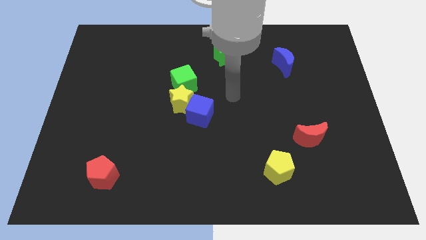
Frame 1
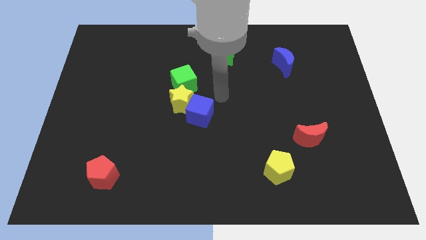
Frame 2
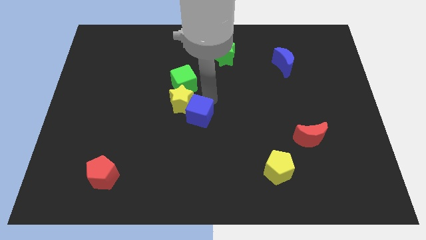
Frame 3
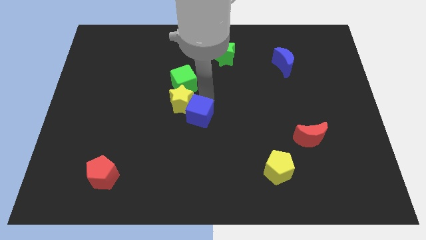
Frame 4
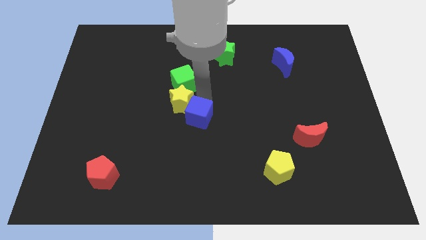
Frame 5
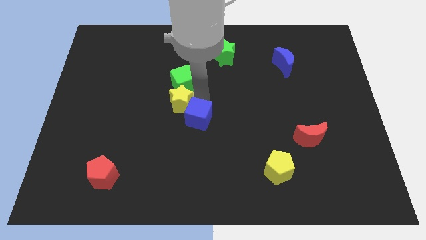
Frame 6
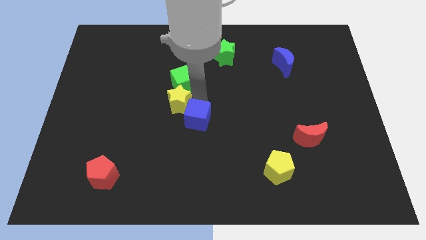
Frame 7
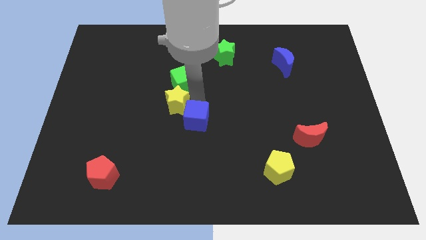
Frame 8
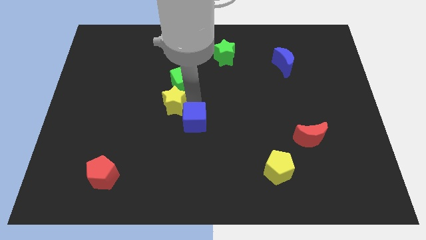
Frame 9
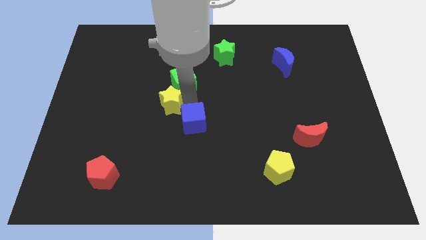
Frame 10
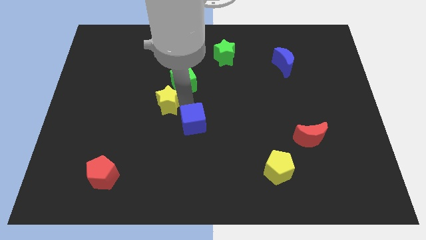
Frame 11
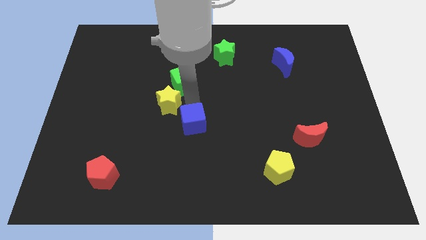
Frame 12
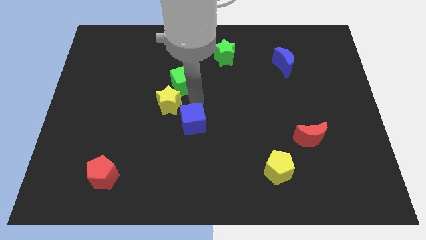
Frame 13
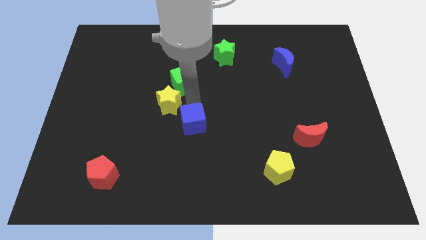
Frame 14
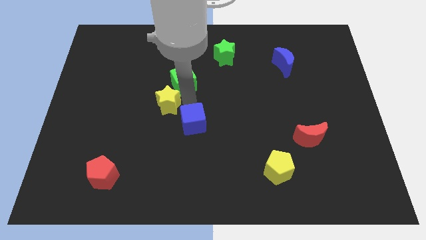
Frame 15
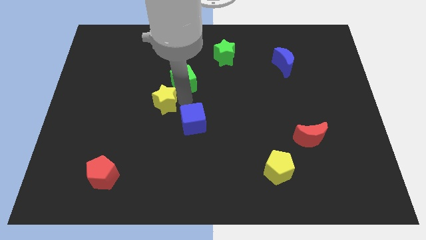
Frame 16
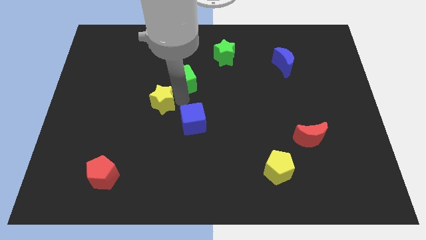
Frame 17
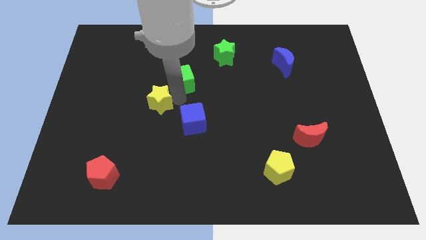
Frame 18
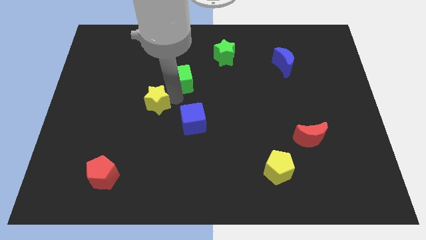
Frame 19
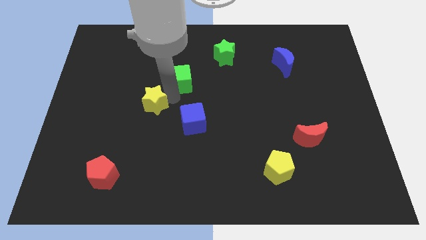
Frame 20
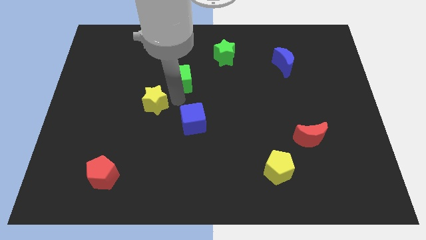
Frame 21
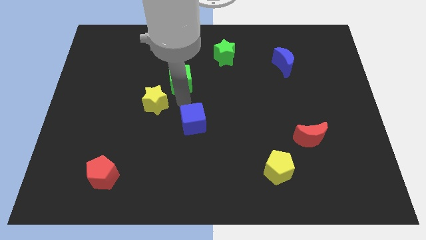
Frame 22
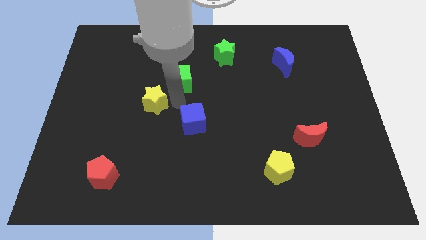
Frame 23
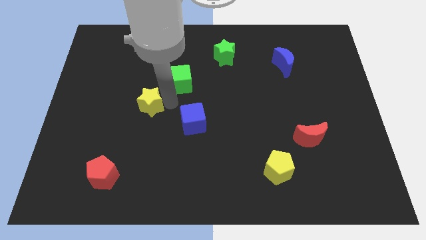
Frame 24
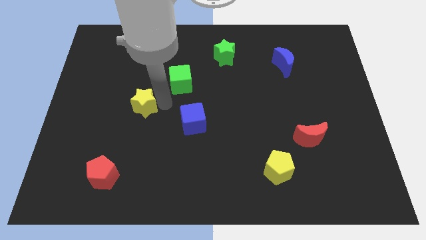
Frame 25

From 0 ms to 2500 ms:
separate the yellow star from the blue cube and green cube

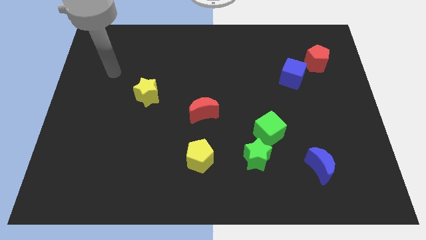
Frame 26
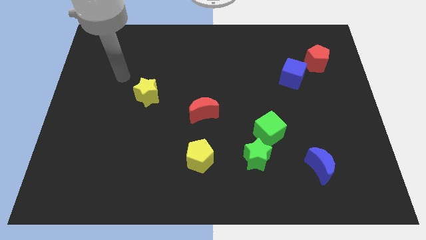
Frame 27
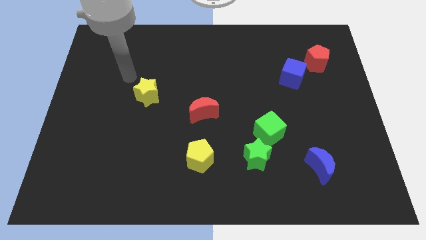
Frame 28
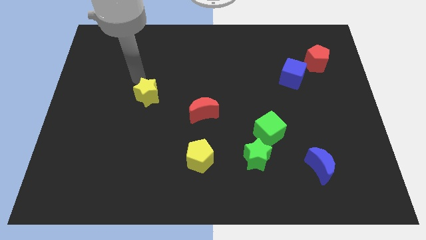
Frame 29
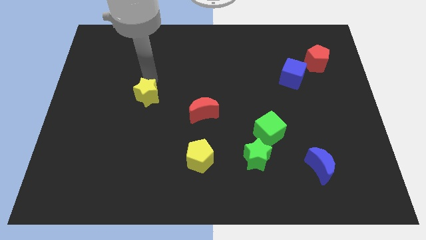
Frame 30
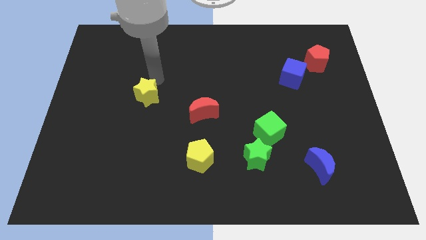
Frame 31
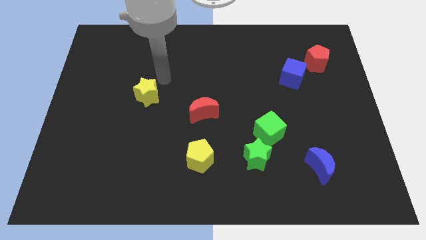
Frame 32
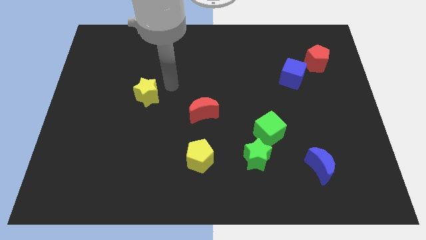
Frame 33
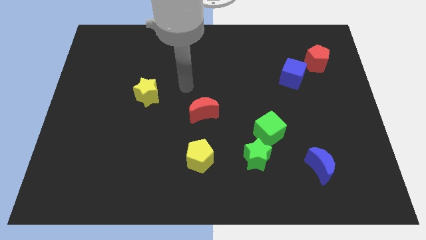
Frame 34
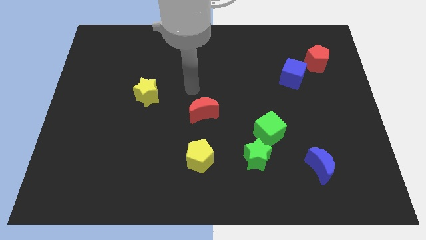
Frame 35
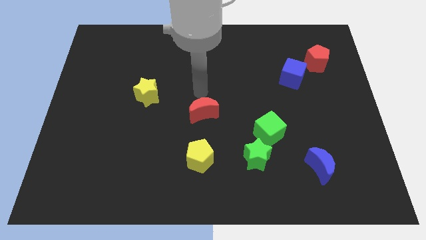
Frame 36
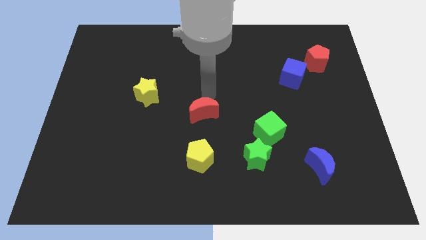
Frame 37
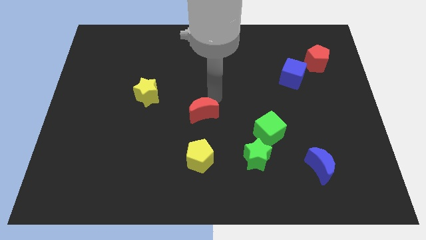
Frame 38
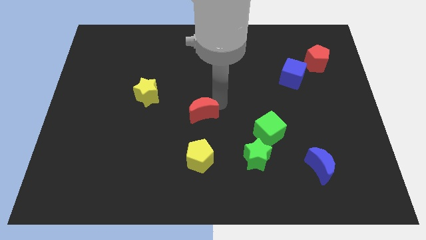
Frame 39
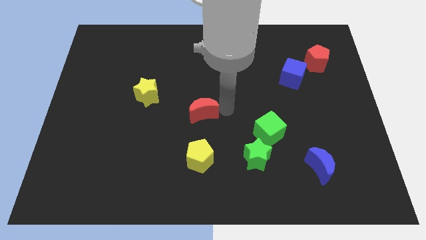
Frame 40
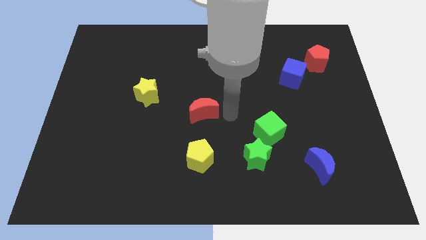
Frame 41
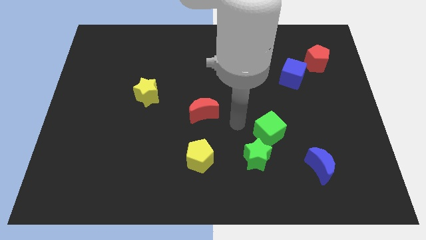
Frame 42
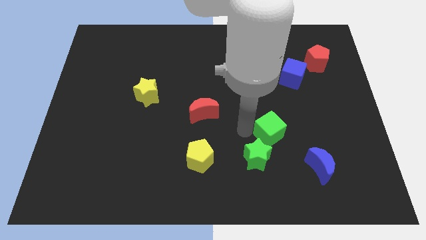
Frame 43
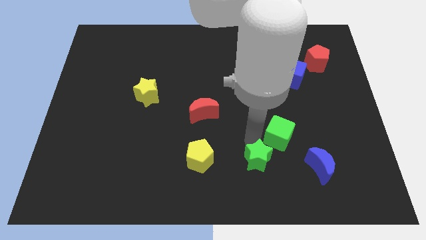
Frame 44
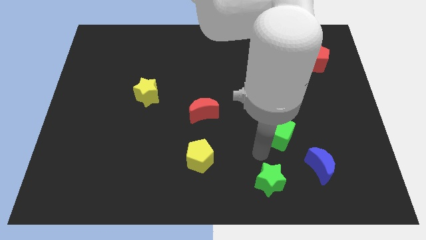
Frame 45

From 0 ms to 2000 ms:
move the green cube away from the green star

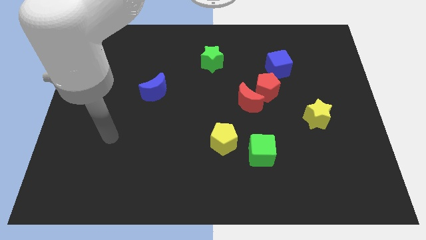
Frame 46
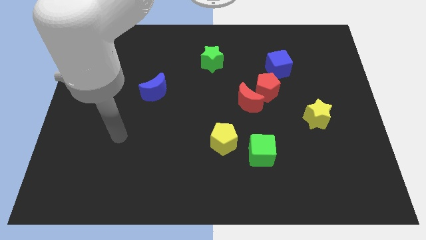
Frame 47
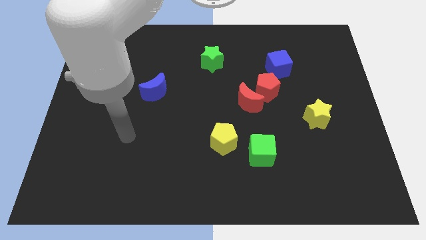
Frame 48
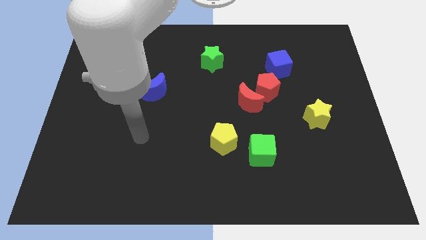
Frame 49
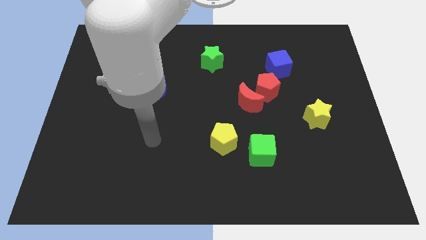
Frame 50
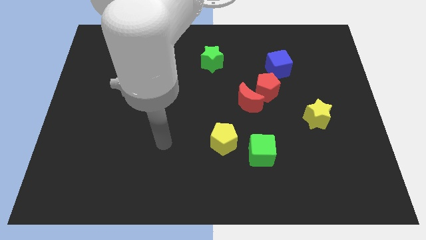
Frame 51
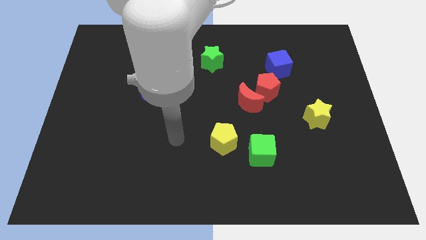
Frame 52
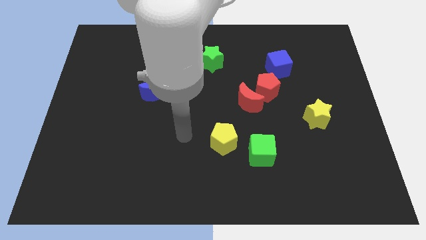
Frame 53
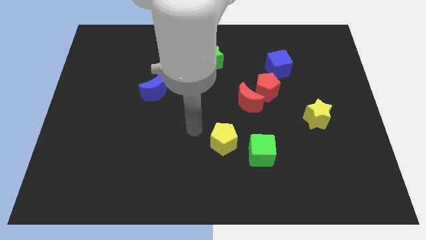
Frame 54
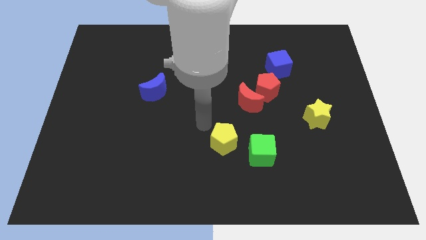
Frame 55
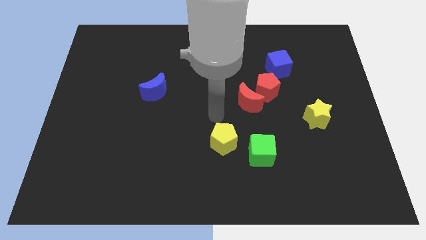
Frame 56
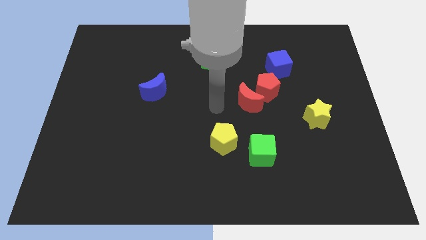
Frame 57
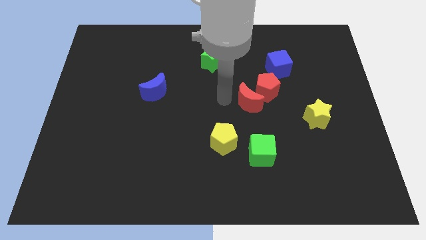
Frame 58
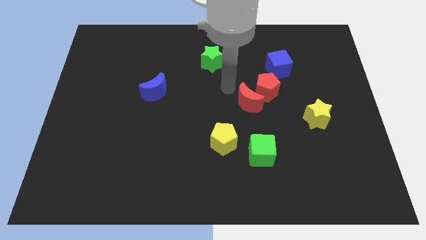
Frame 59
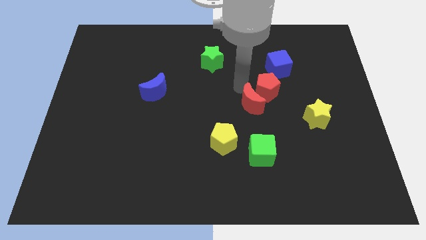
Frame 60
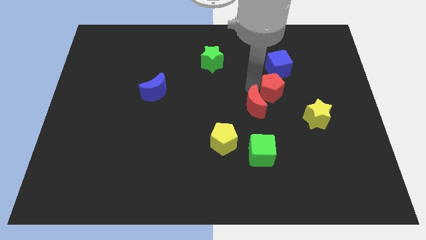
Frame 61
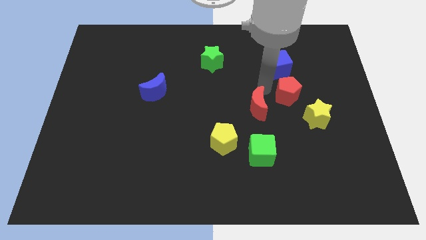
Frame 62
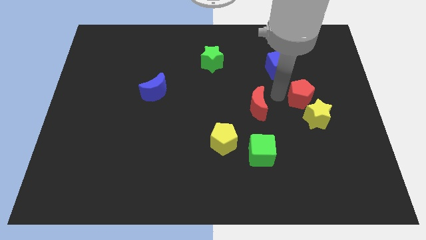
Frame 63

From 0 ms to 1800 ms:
separate the red moon from the red pentagon

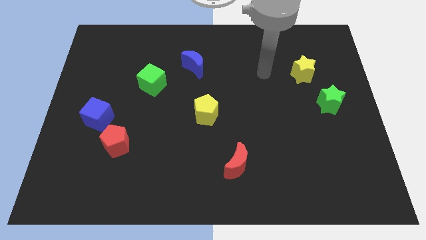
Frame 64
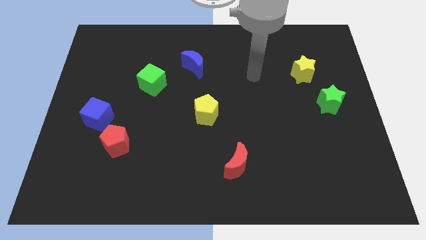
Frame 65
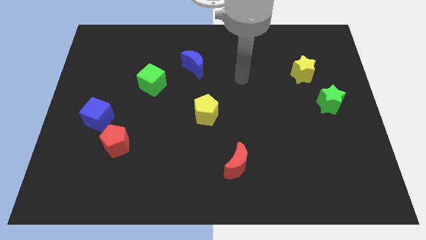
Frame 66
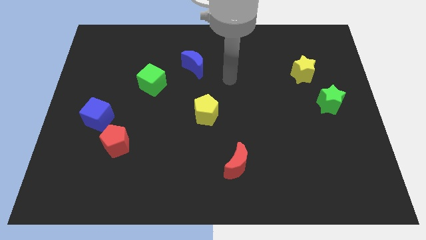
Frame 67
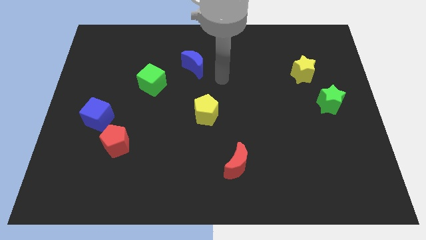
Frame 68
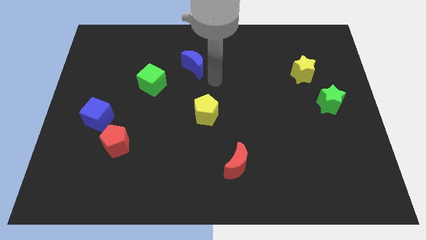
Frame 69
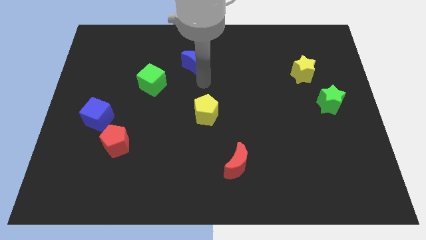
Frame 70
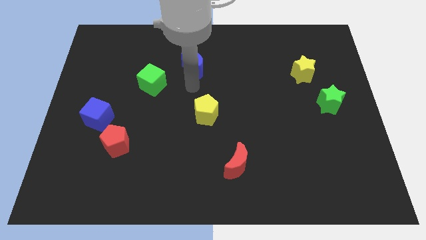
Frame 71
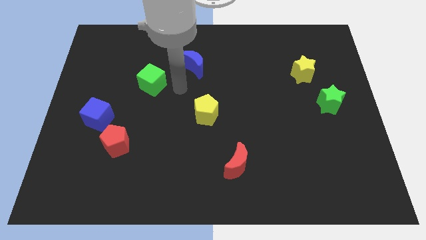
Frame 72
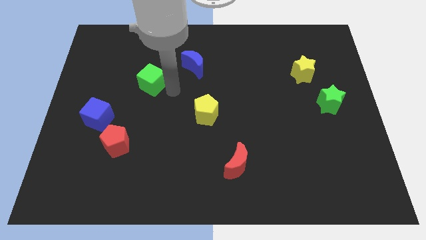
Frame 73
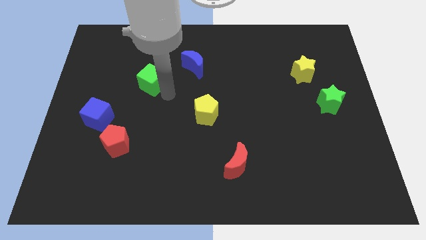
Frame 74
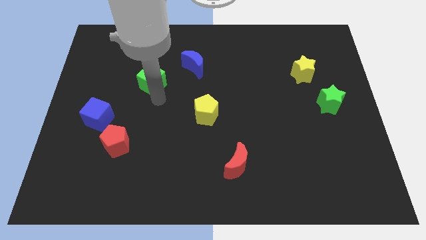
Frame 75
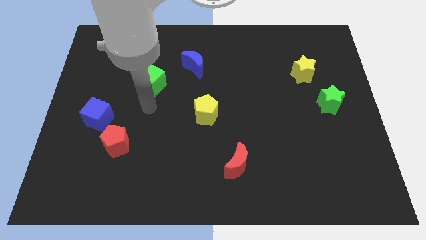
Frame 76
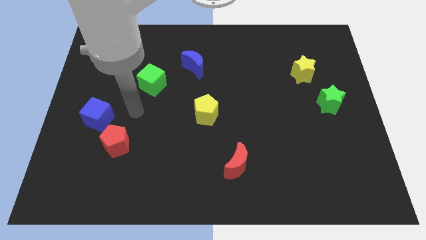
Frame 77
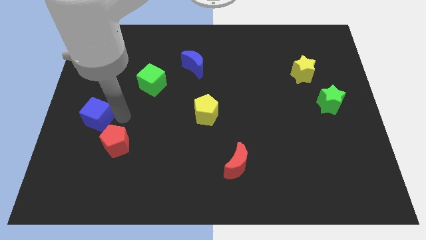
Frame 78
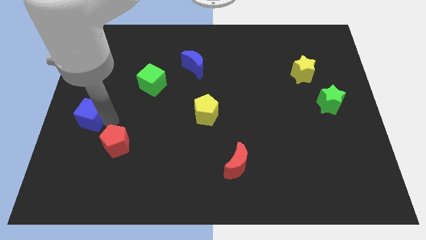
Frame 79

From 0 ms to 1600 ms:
move the red pentagon away from the blue cube

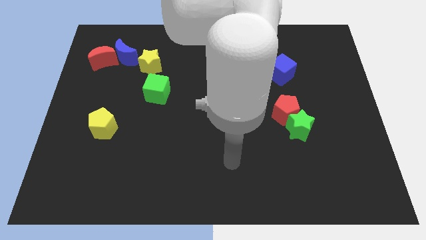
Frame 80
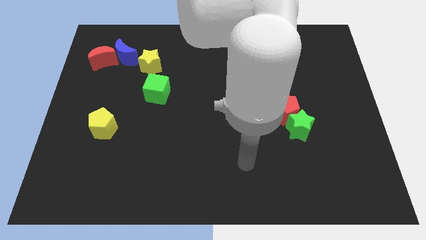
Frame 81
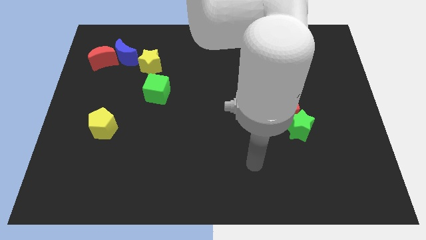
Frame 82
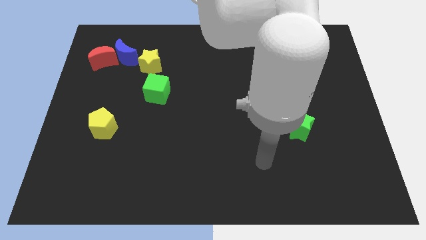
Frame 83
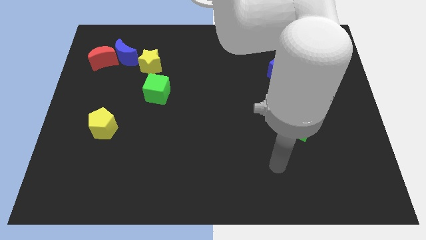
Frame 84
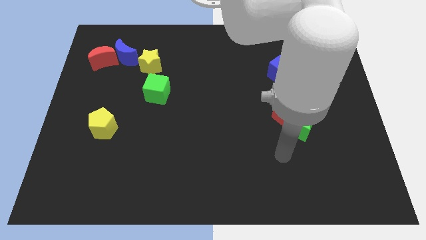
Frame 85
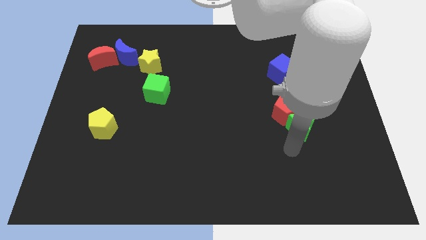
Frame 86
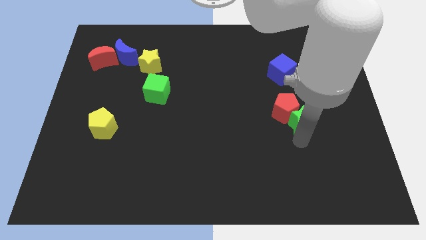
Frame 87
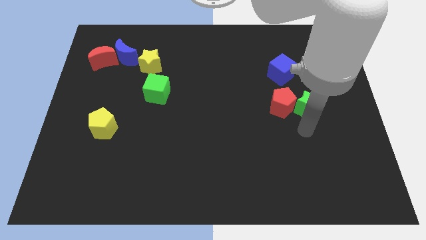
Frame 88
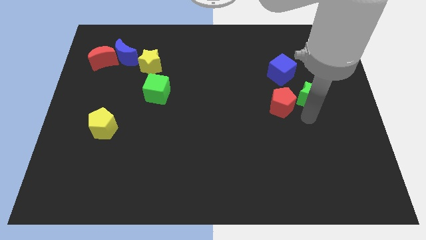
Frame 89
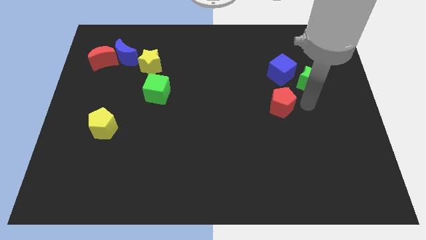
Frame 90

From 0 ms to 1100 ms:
pull the red pentagon apart from the green star

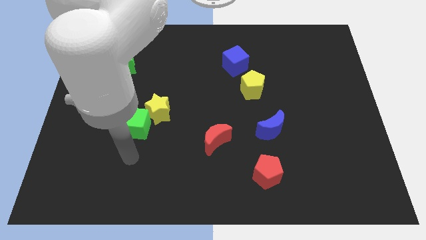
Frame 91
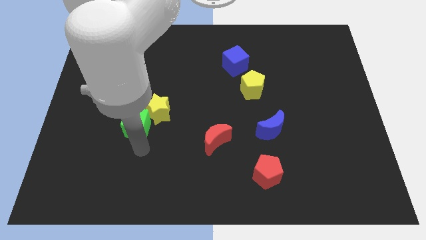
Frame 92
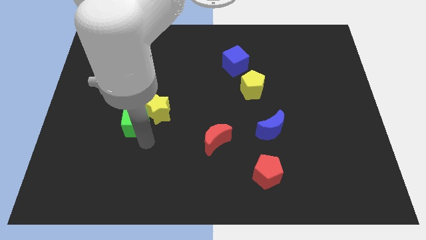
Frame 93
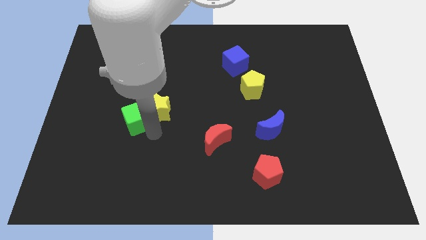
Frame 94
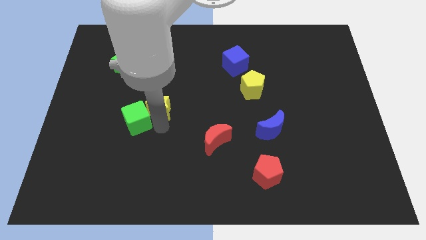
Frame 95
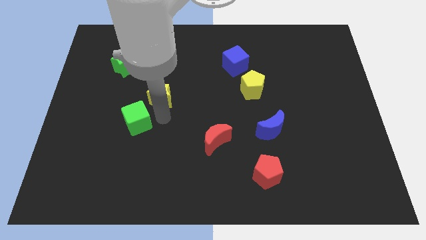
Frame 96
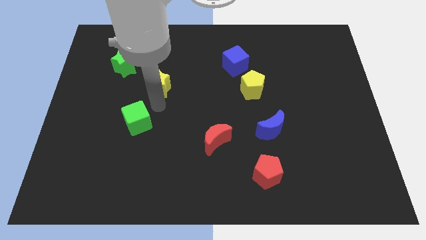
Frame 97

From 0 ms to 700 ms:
pull the green cube apart from the yellow star
